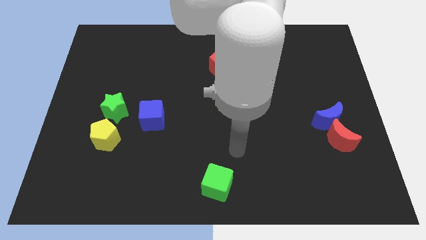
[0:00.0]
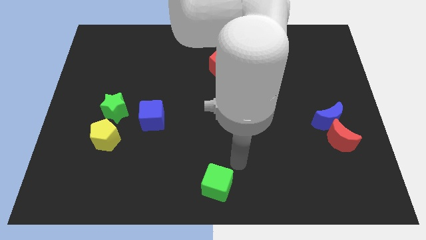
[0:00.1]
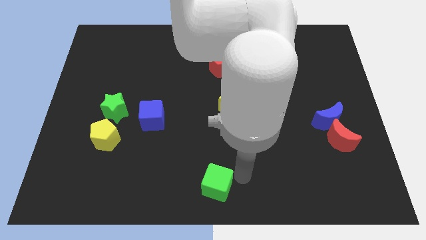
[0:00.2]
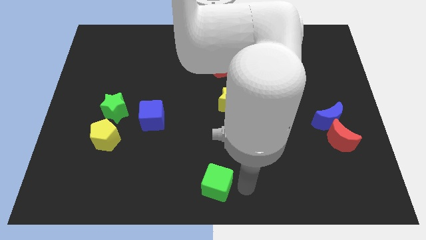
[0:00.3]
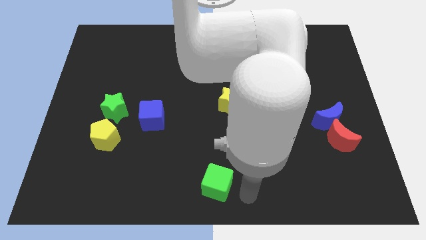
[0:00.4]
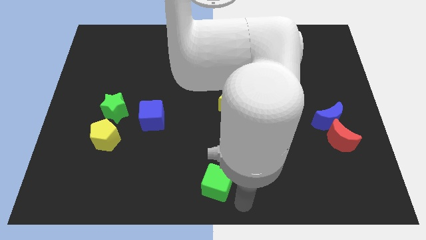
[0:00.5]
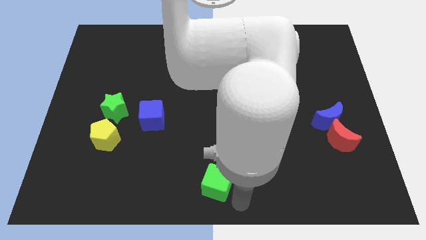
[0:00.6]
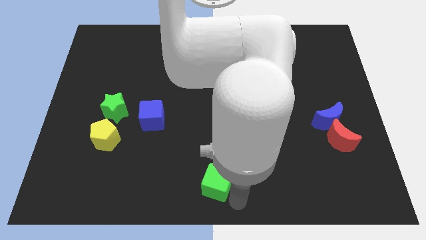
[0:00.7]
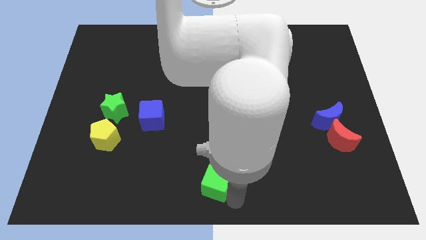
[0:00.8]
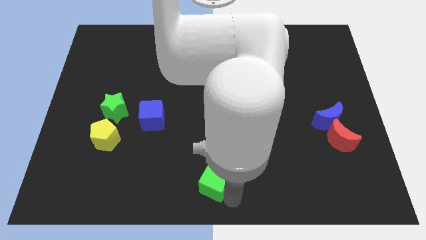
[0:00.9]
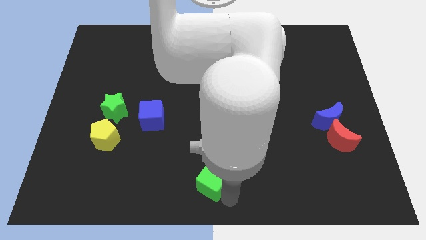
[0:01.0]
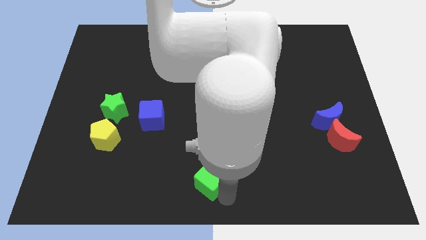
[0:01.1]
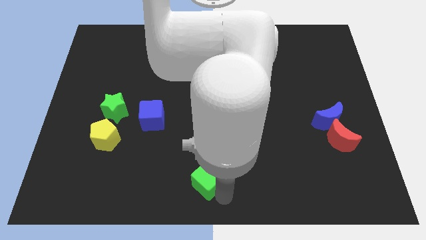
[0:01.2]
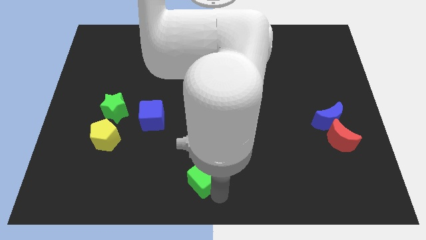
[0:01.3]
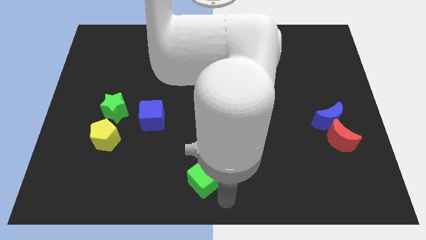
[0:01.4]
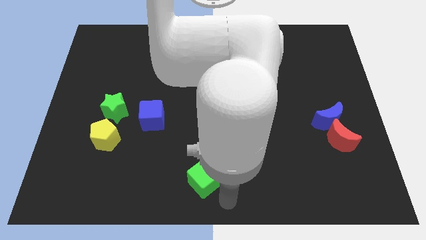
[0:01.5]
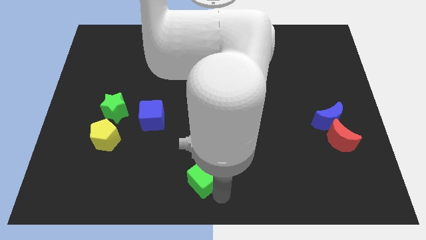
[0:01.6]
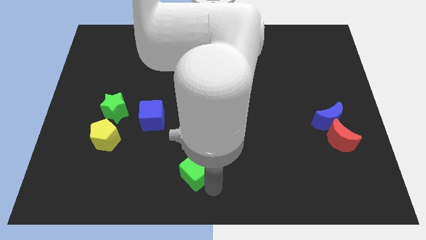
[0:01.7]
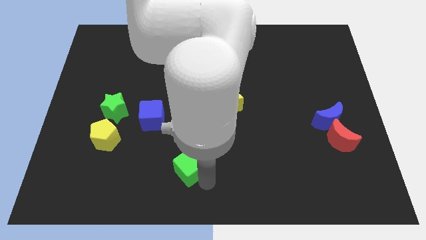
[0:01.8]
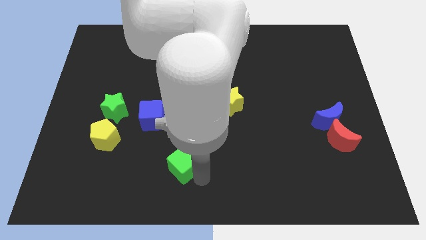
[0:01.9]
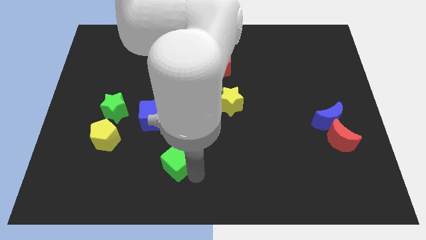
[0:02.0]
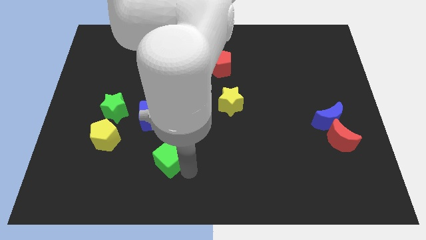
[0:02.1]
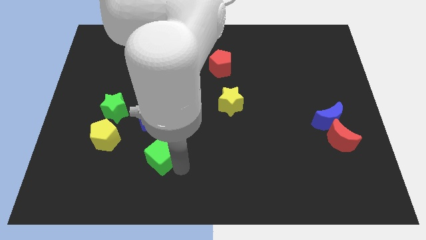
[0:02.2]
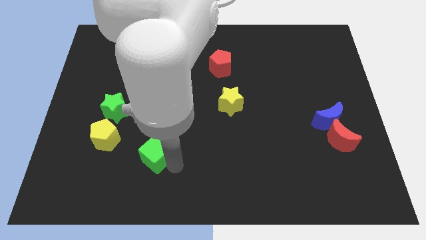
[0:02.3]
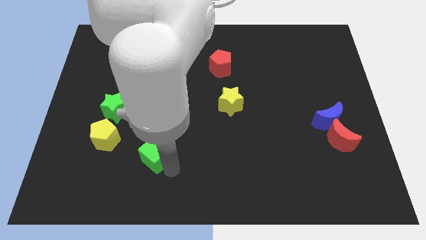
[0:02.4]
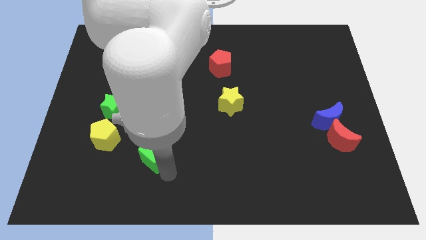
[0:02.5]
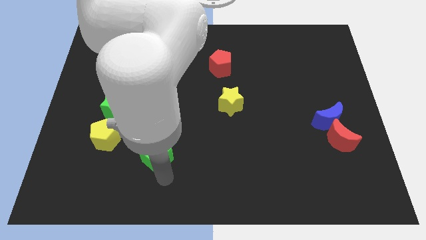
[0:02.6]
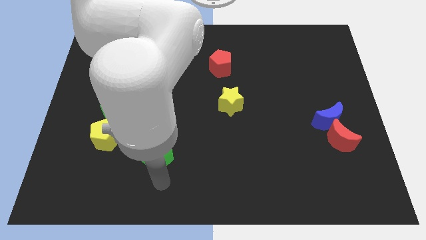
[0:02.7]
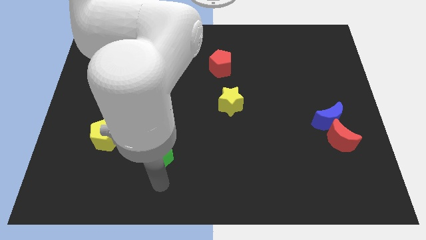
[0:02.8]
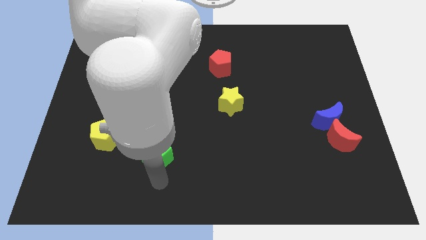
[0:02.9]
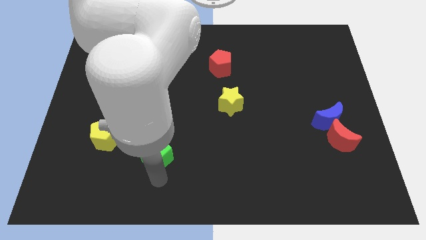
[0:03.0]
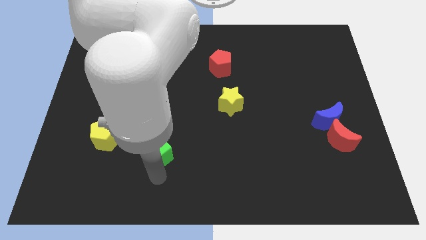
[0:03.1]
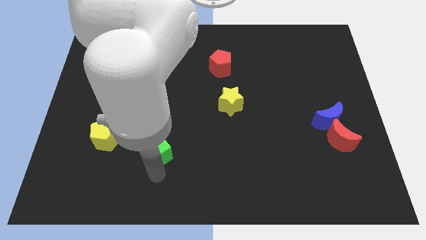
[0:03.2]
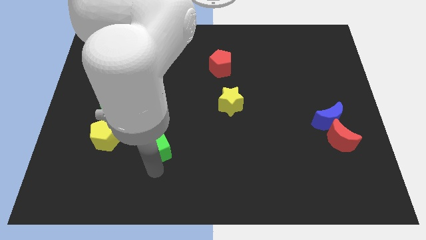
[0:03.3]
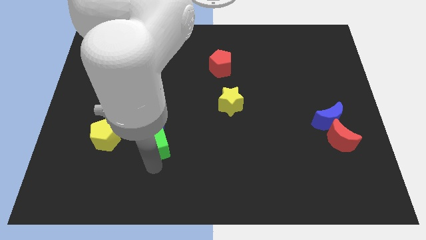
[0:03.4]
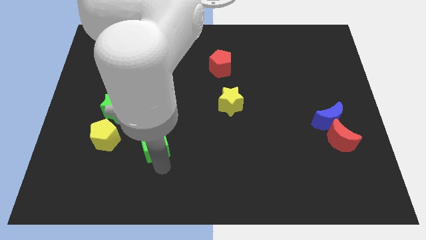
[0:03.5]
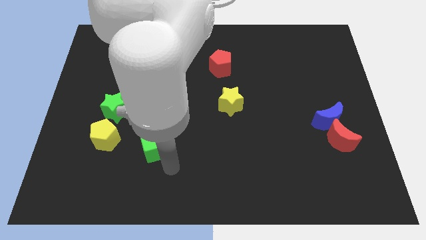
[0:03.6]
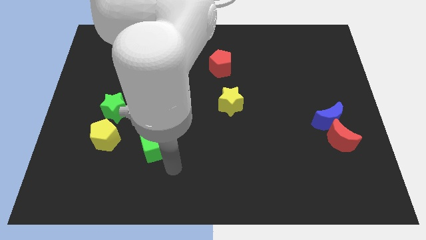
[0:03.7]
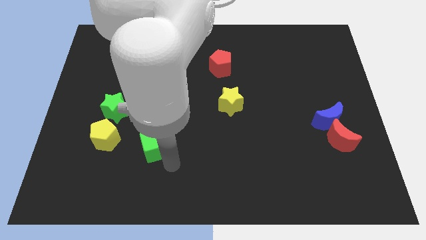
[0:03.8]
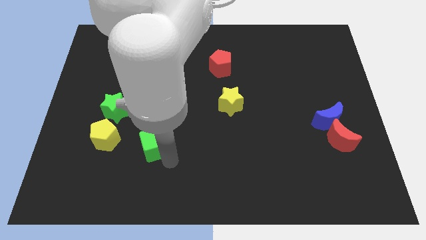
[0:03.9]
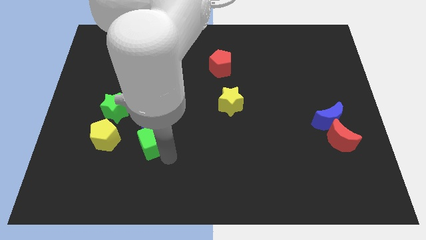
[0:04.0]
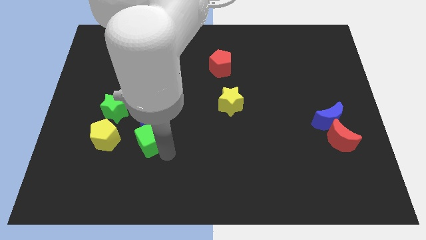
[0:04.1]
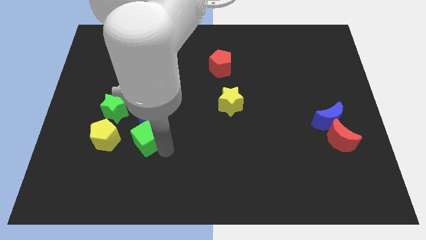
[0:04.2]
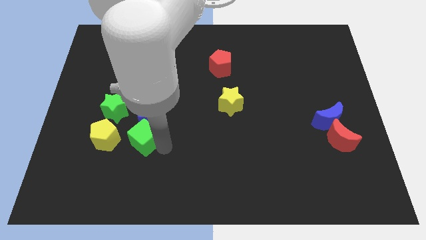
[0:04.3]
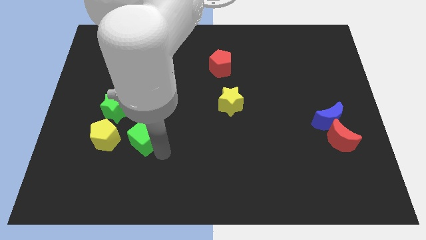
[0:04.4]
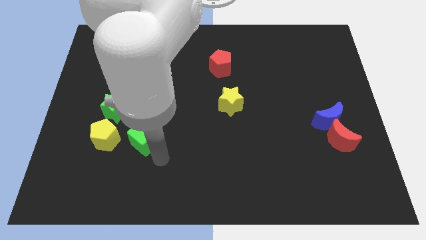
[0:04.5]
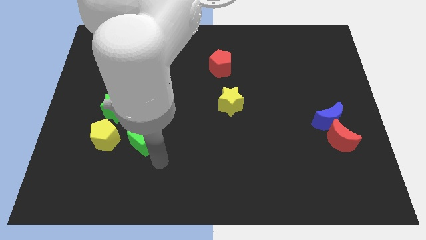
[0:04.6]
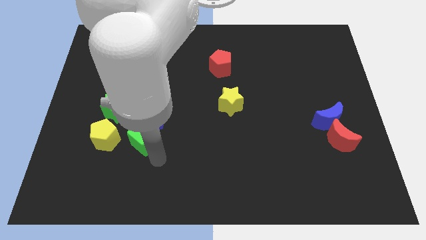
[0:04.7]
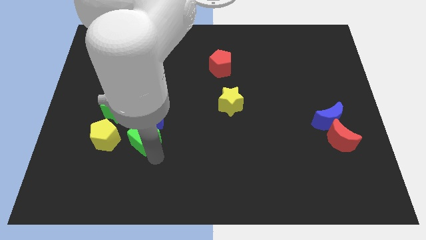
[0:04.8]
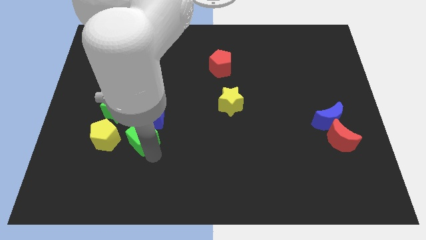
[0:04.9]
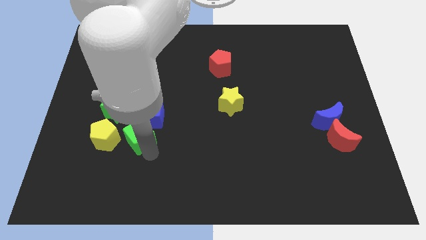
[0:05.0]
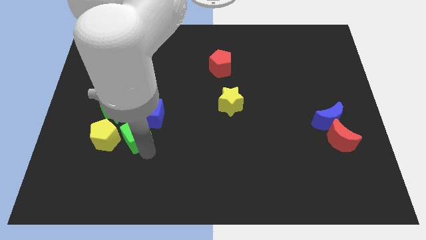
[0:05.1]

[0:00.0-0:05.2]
move the green cube to the top right of the yellow pentagon

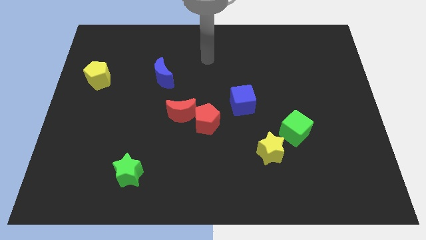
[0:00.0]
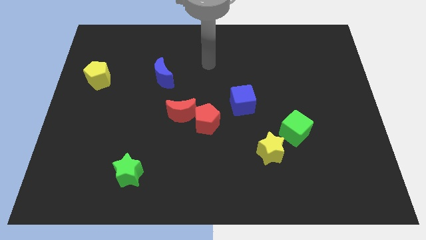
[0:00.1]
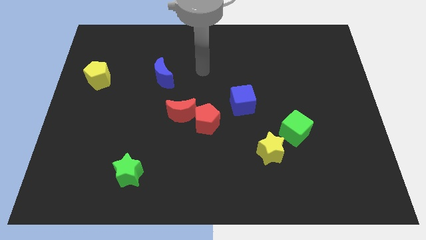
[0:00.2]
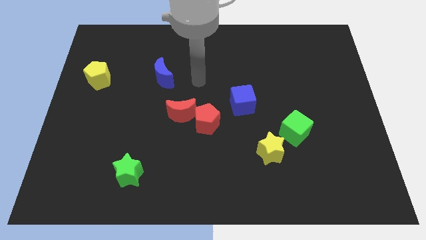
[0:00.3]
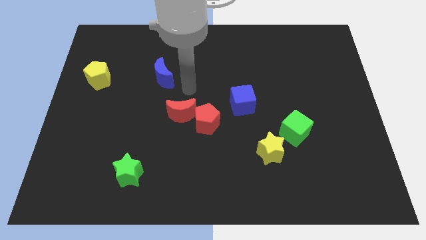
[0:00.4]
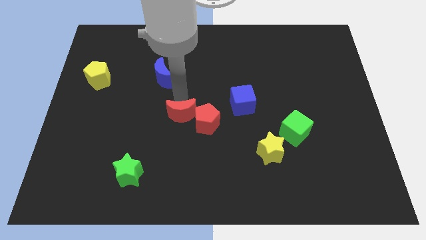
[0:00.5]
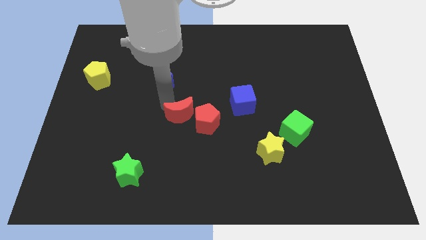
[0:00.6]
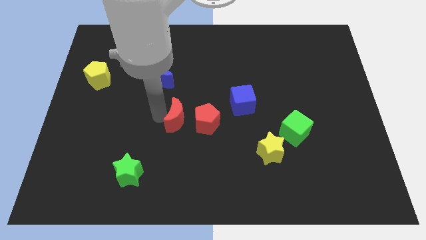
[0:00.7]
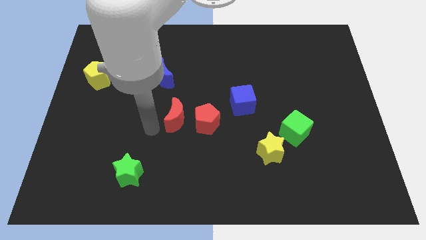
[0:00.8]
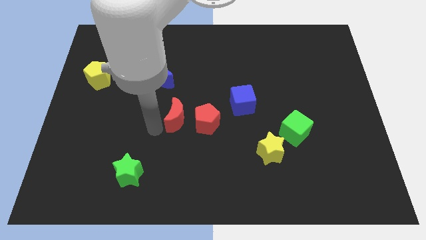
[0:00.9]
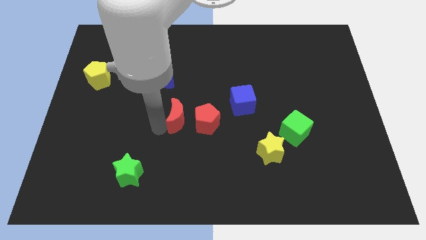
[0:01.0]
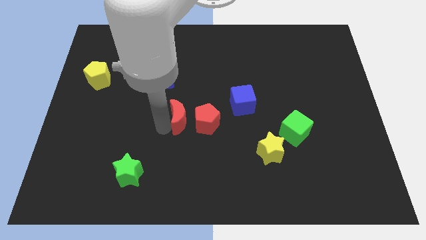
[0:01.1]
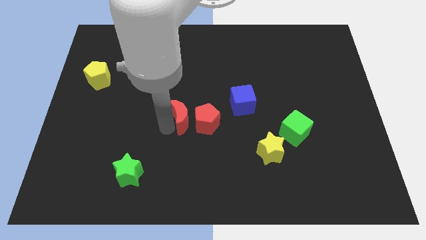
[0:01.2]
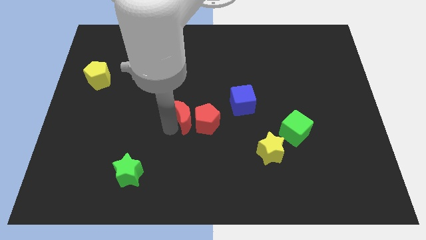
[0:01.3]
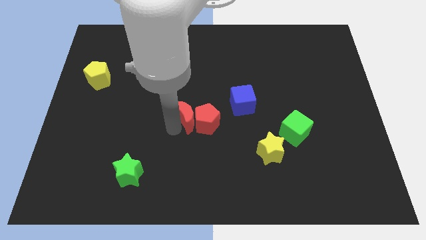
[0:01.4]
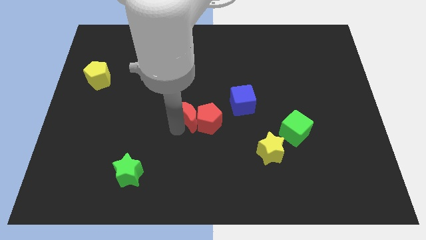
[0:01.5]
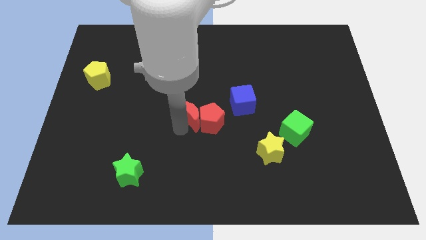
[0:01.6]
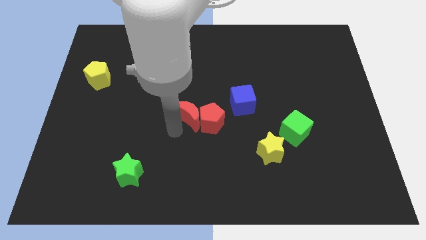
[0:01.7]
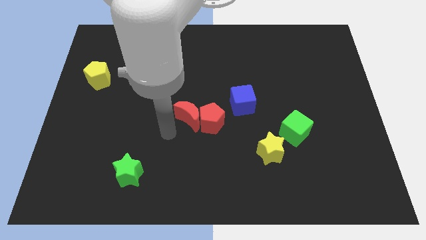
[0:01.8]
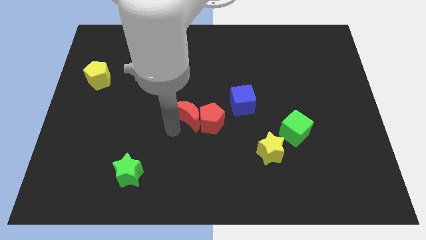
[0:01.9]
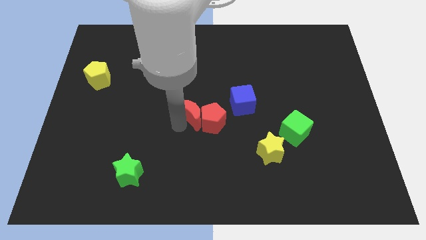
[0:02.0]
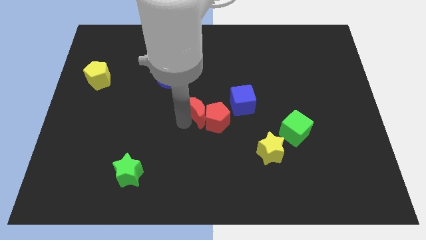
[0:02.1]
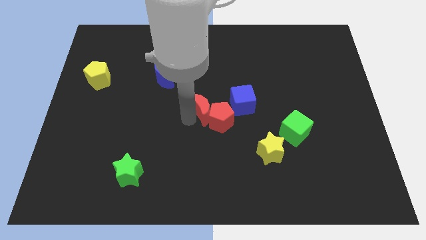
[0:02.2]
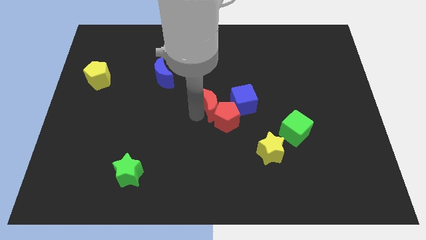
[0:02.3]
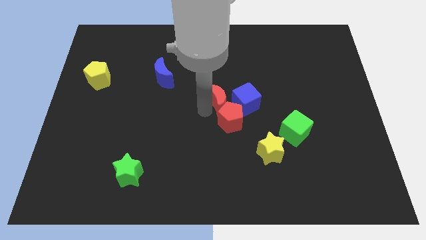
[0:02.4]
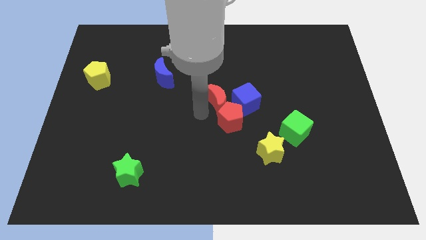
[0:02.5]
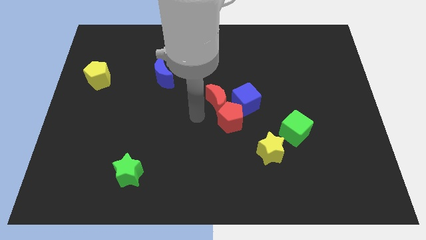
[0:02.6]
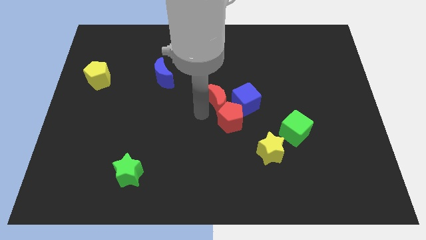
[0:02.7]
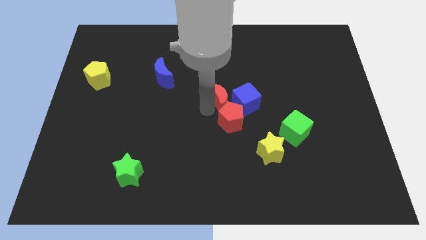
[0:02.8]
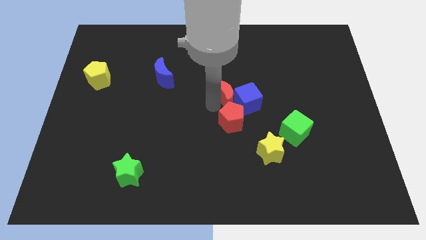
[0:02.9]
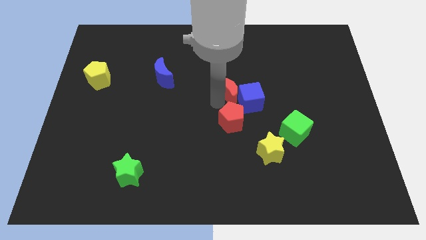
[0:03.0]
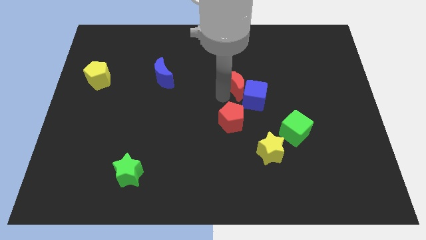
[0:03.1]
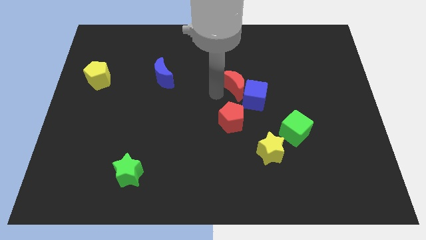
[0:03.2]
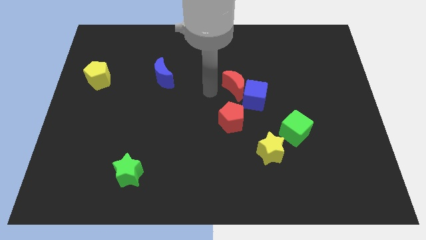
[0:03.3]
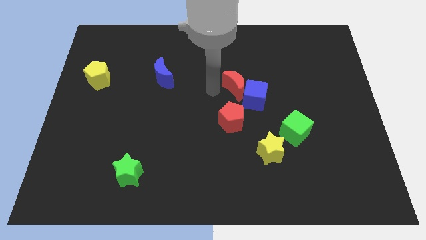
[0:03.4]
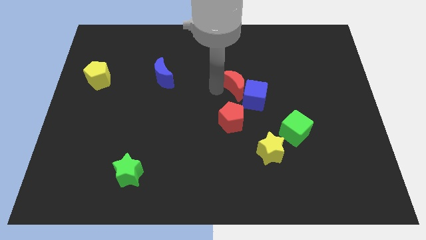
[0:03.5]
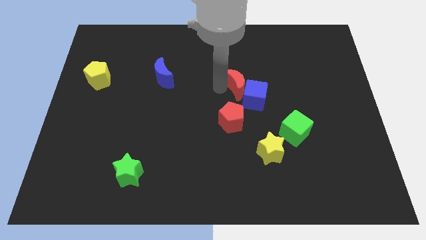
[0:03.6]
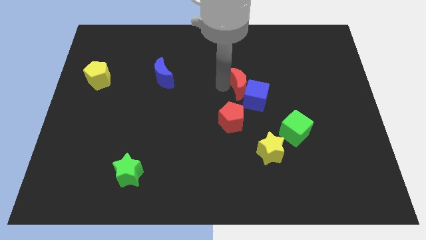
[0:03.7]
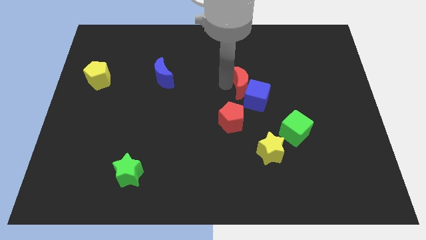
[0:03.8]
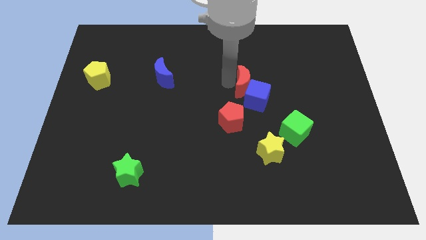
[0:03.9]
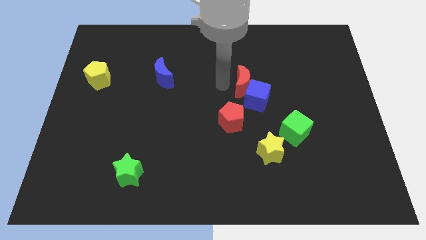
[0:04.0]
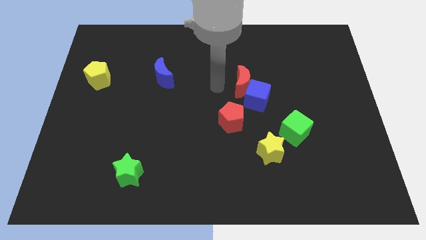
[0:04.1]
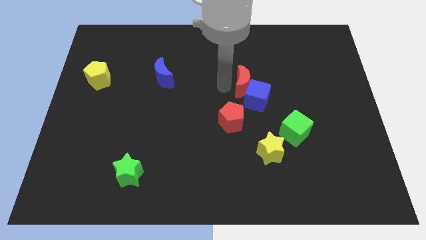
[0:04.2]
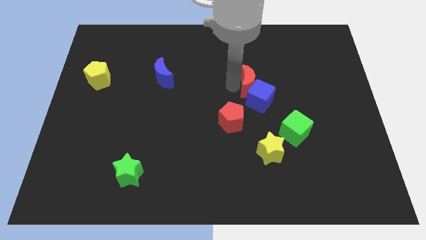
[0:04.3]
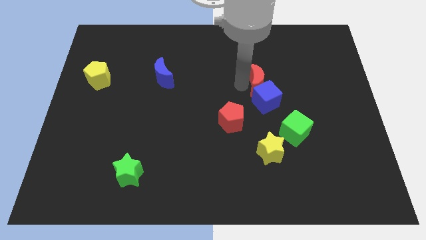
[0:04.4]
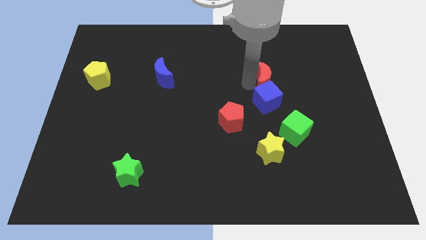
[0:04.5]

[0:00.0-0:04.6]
push the red moon diagonally up and to the right of the blue cube
